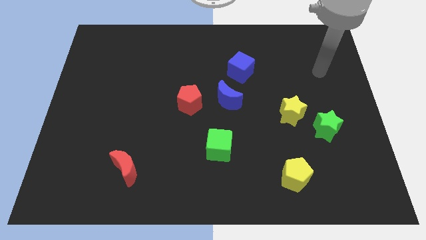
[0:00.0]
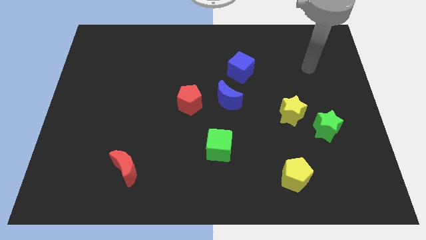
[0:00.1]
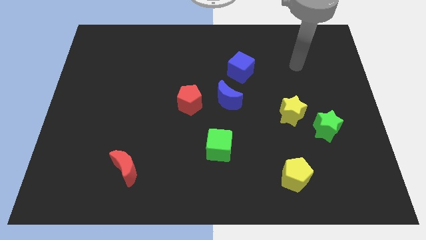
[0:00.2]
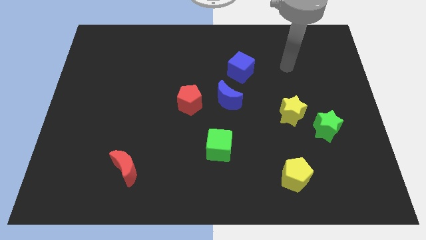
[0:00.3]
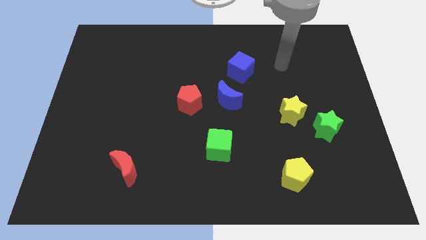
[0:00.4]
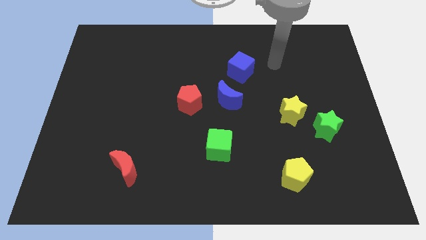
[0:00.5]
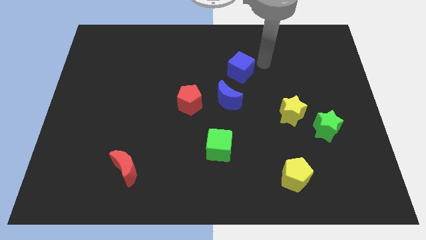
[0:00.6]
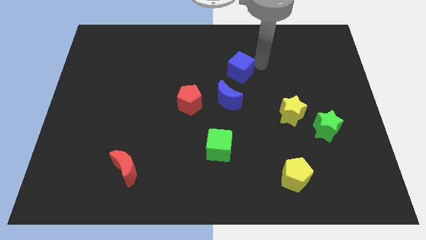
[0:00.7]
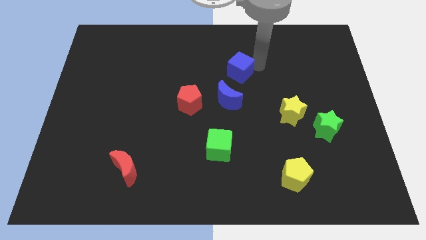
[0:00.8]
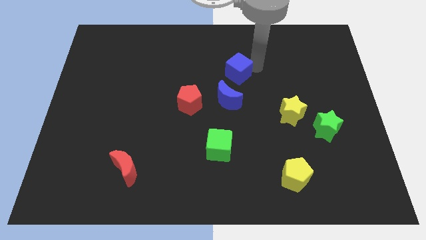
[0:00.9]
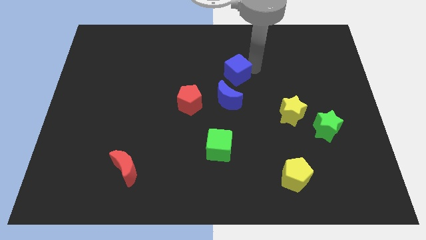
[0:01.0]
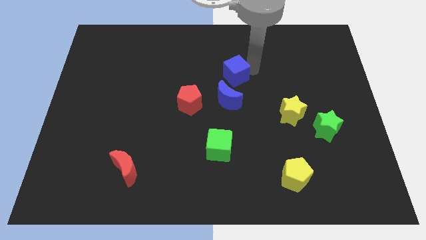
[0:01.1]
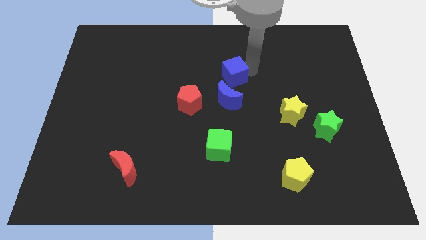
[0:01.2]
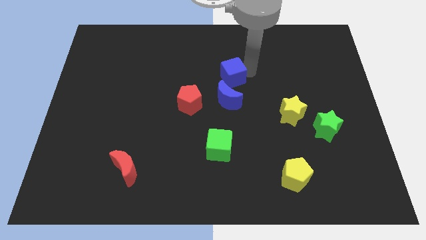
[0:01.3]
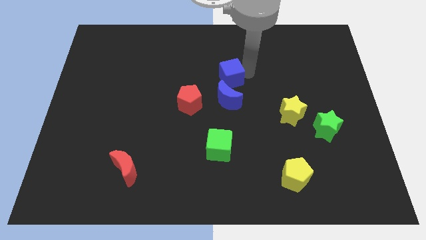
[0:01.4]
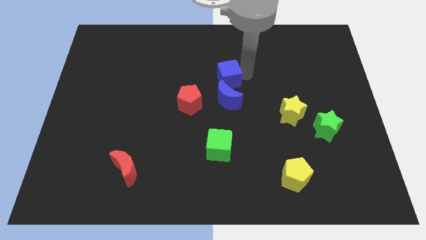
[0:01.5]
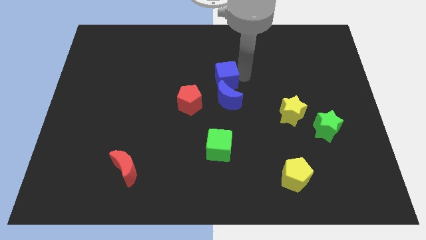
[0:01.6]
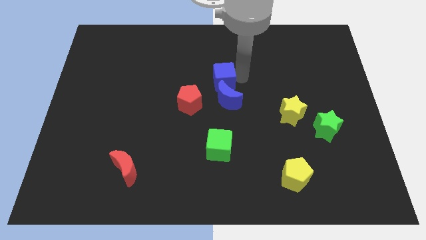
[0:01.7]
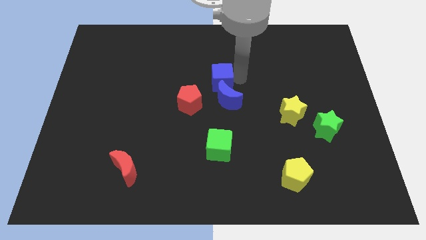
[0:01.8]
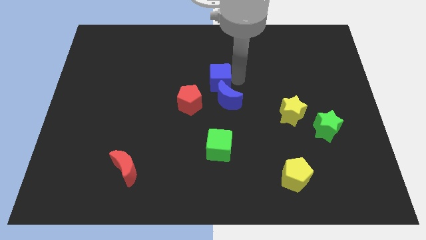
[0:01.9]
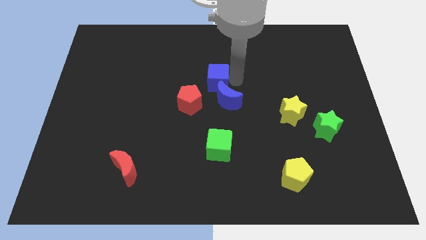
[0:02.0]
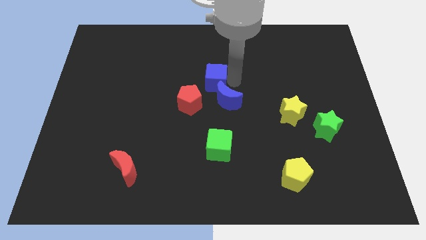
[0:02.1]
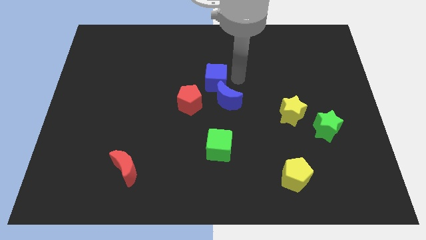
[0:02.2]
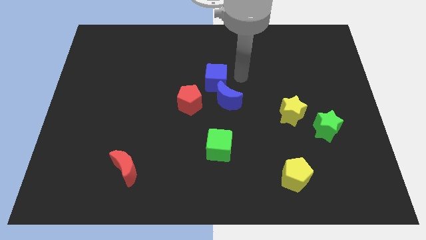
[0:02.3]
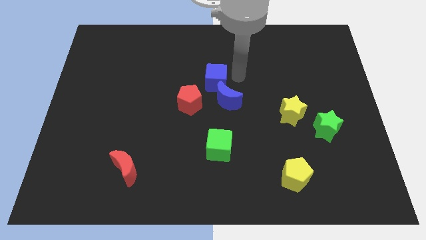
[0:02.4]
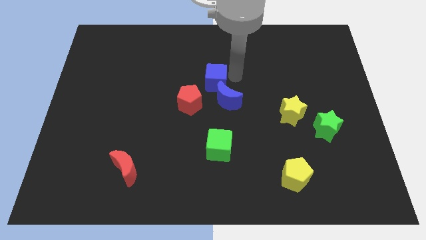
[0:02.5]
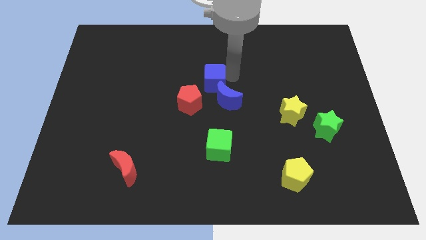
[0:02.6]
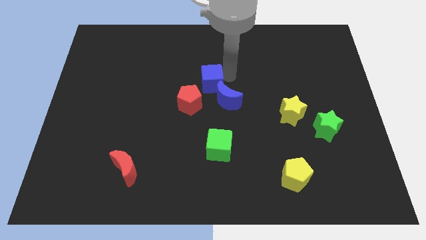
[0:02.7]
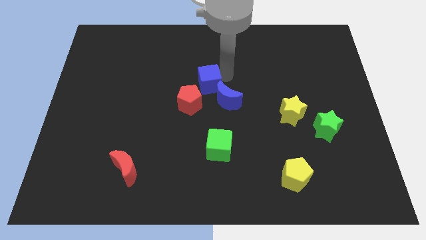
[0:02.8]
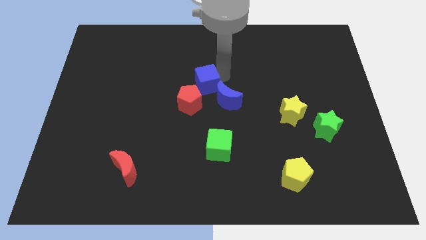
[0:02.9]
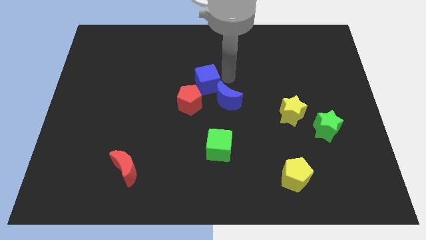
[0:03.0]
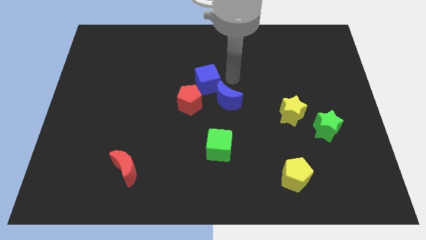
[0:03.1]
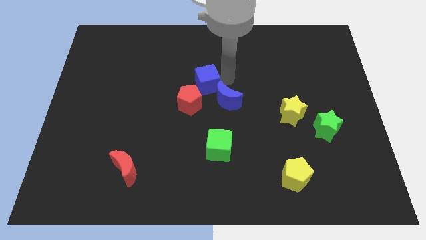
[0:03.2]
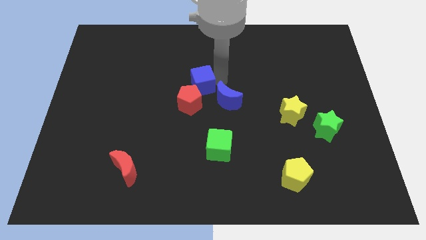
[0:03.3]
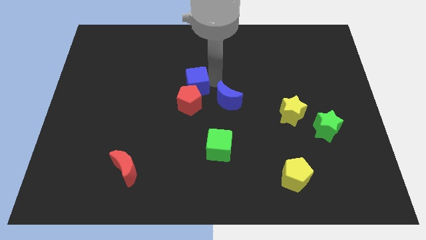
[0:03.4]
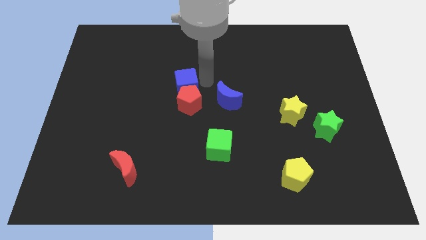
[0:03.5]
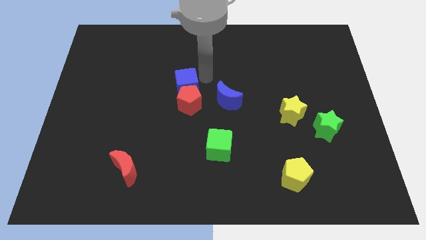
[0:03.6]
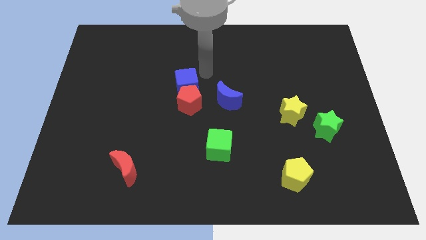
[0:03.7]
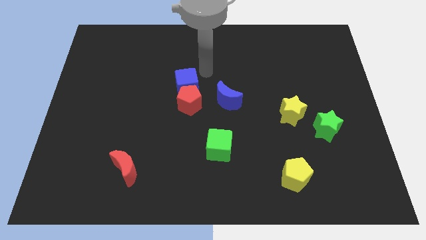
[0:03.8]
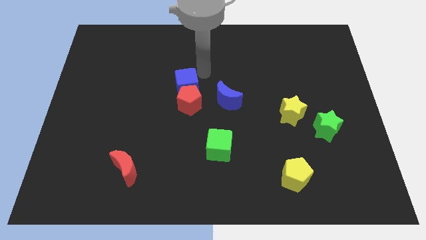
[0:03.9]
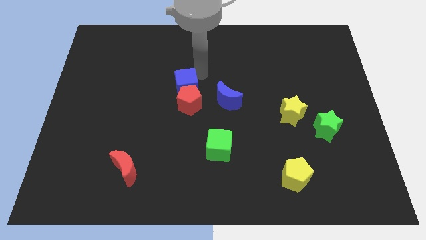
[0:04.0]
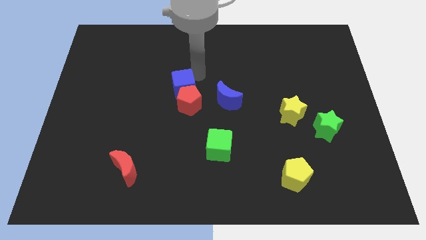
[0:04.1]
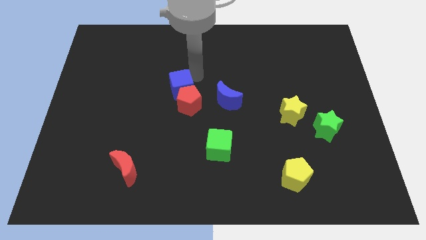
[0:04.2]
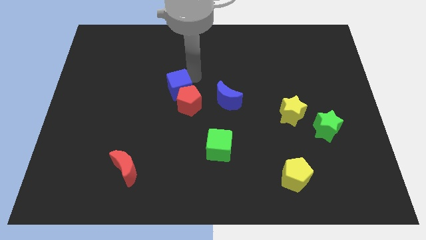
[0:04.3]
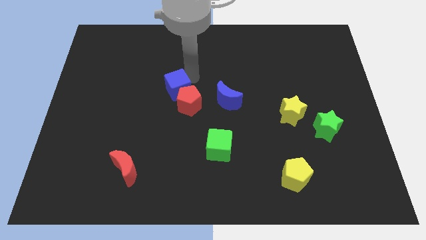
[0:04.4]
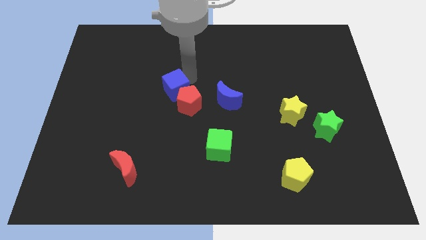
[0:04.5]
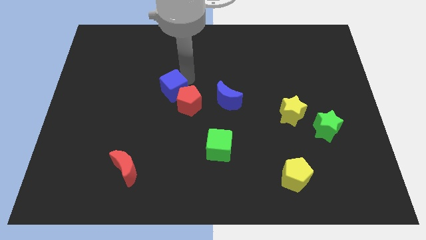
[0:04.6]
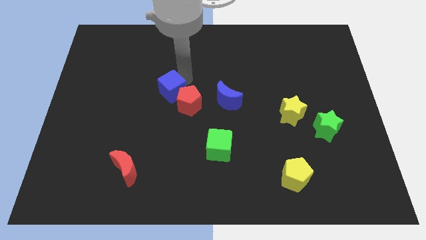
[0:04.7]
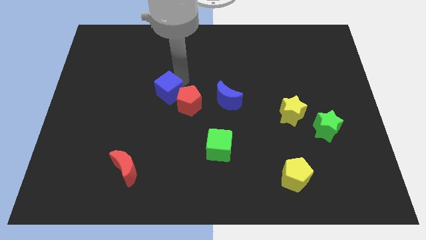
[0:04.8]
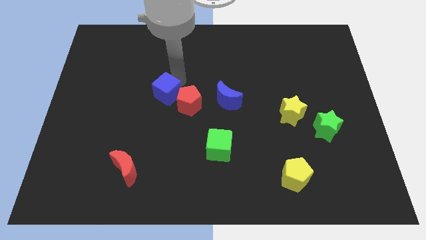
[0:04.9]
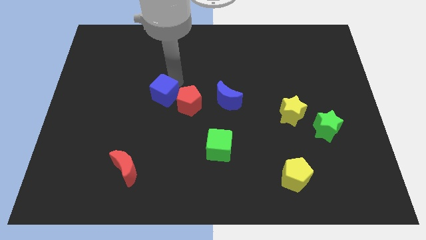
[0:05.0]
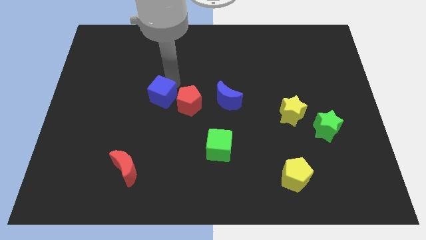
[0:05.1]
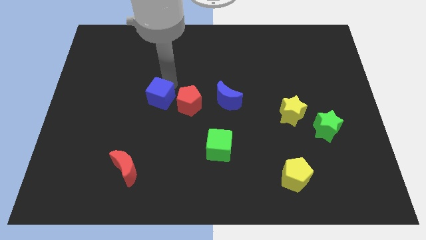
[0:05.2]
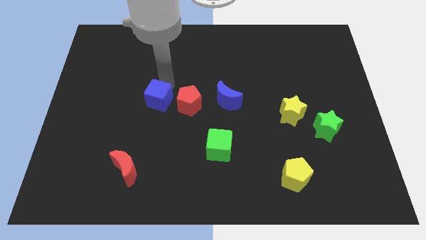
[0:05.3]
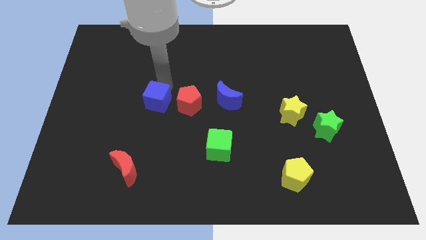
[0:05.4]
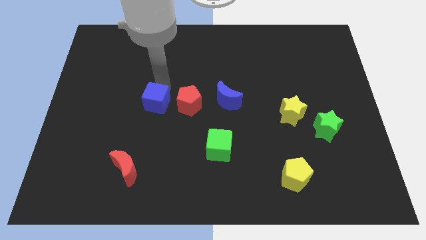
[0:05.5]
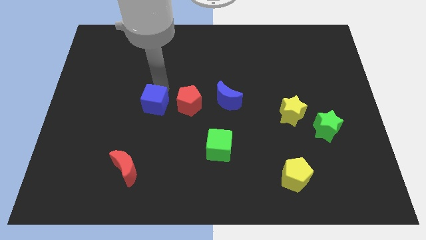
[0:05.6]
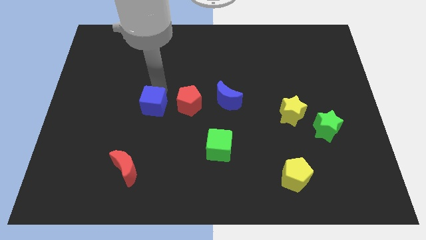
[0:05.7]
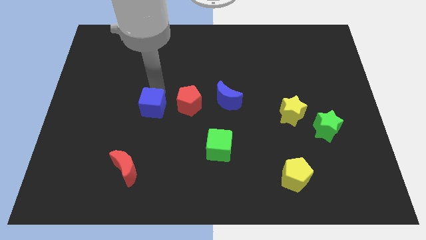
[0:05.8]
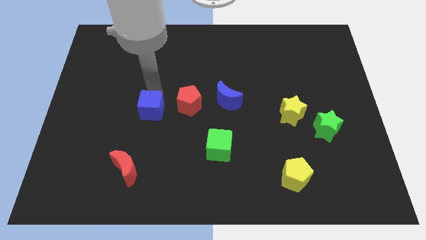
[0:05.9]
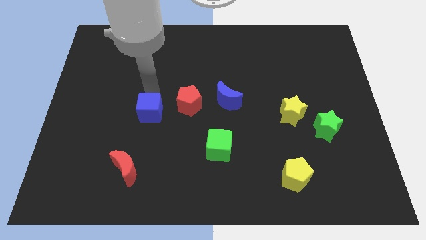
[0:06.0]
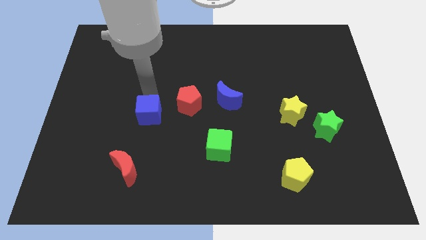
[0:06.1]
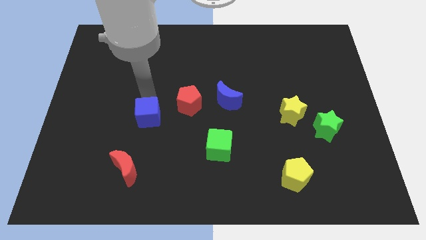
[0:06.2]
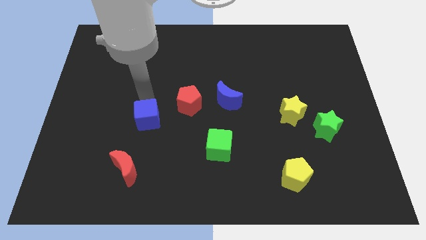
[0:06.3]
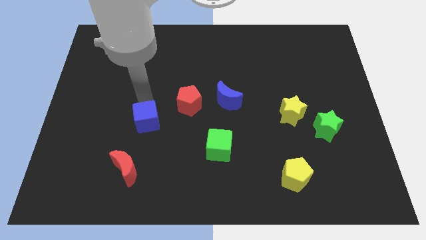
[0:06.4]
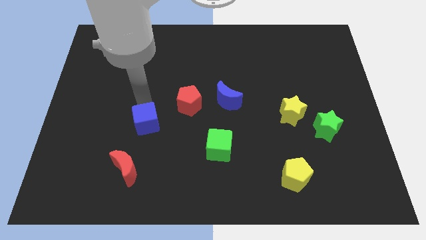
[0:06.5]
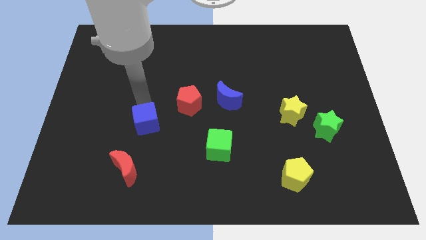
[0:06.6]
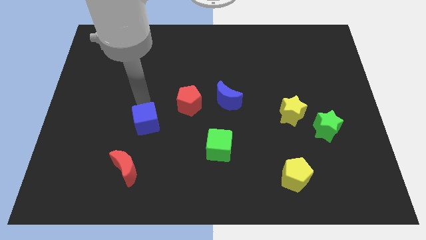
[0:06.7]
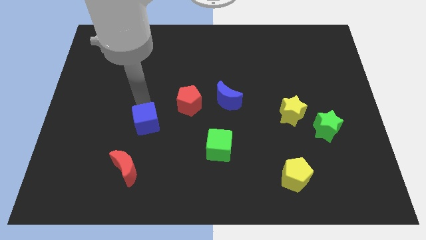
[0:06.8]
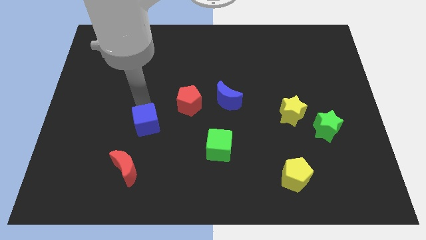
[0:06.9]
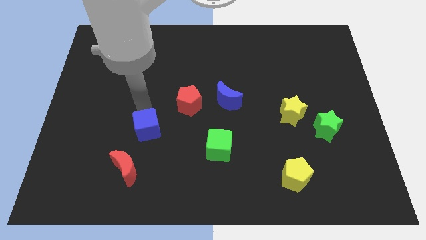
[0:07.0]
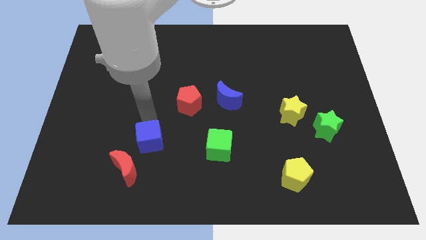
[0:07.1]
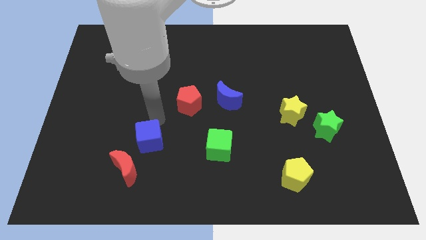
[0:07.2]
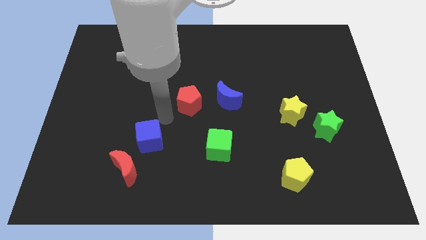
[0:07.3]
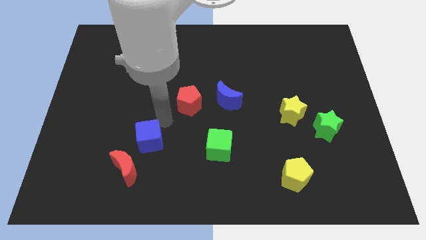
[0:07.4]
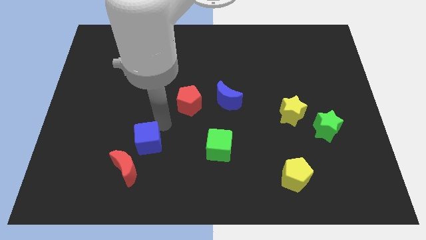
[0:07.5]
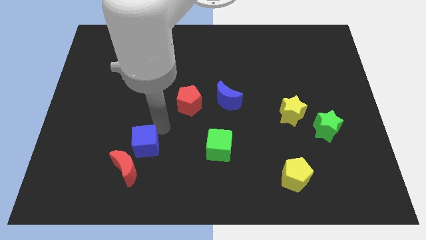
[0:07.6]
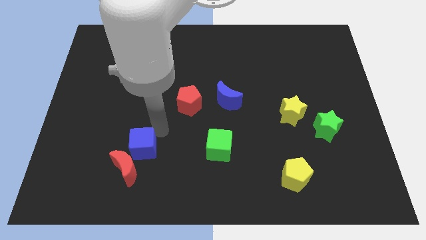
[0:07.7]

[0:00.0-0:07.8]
put the blue cube close to the red moon
